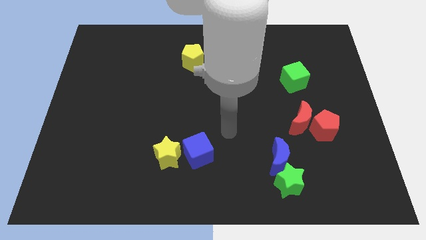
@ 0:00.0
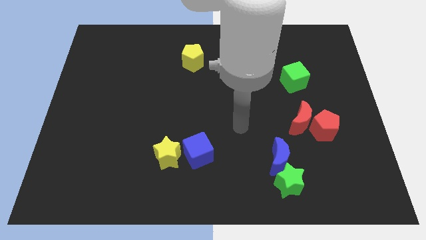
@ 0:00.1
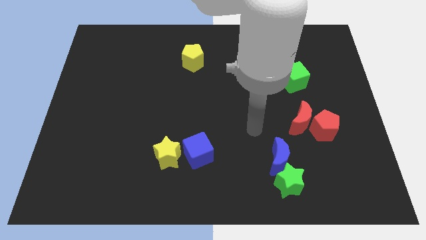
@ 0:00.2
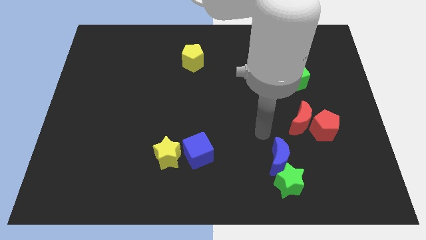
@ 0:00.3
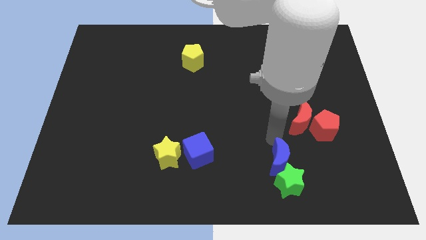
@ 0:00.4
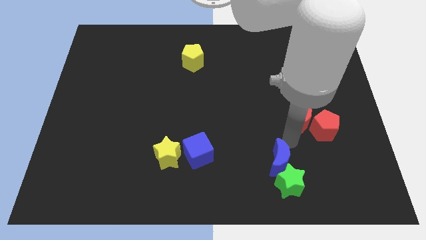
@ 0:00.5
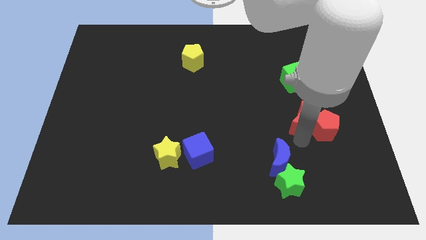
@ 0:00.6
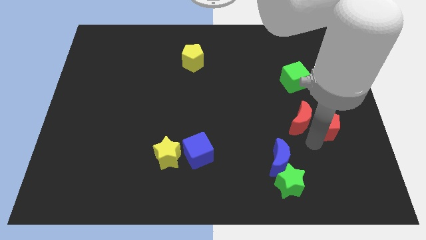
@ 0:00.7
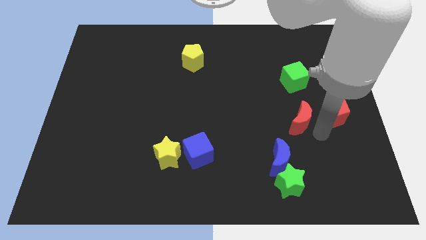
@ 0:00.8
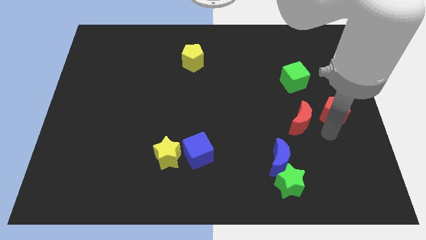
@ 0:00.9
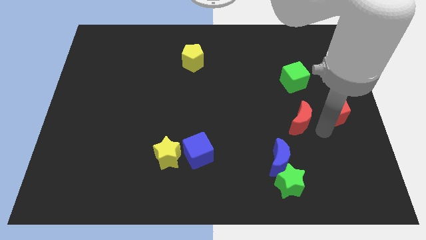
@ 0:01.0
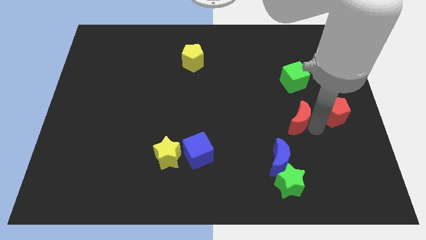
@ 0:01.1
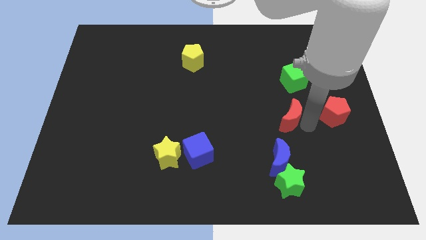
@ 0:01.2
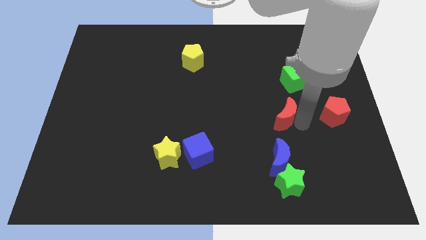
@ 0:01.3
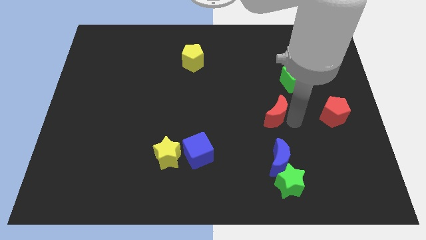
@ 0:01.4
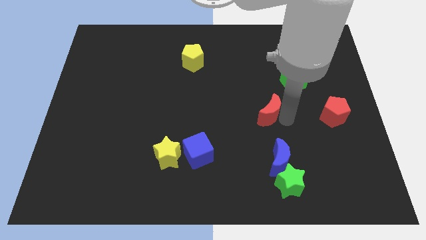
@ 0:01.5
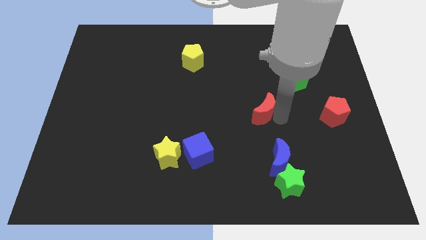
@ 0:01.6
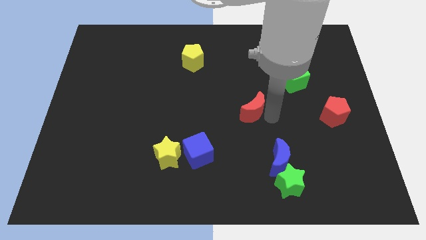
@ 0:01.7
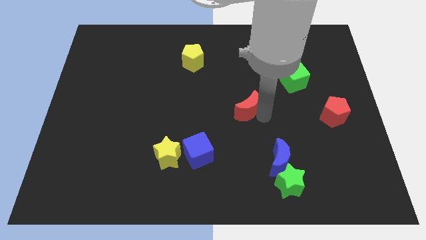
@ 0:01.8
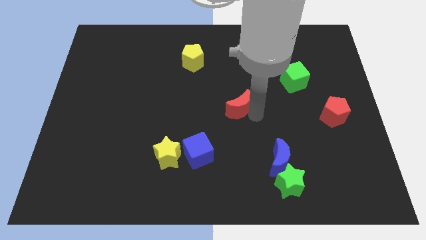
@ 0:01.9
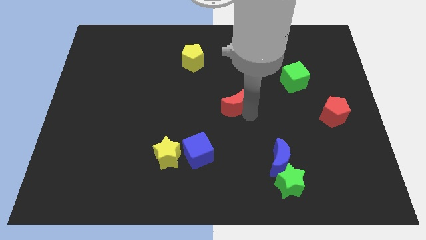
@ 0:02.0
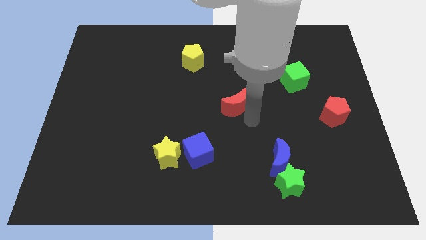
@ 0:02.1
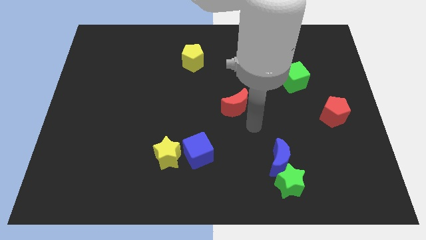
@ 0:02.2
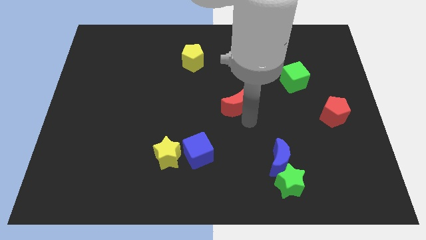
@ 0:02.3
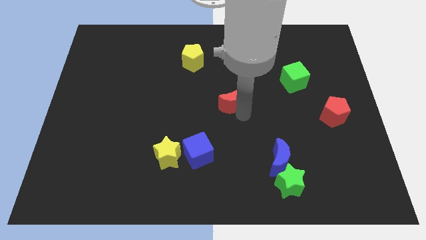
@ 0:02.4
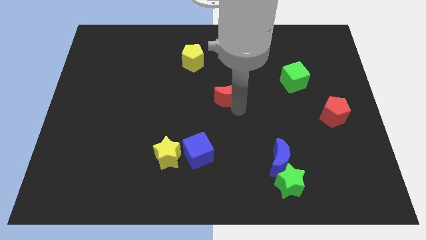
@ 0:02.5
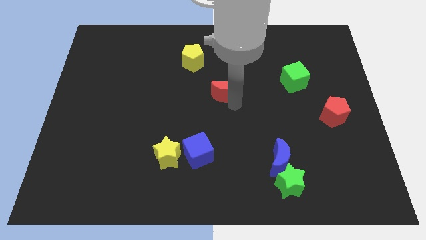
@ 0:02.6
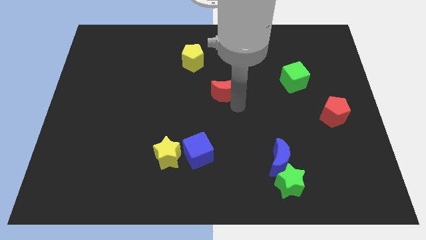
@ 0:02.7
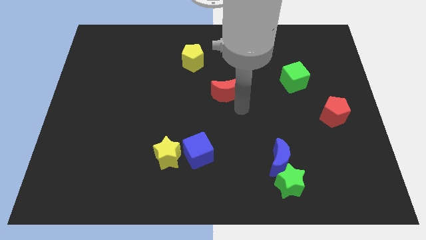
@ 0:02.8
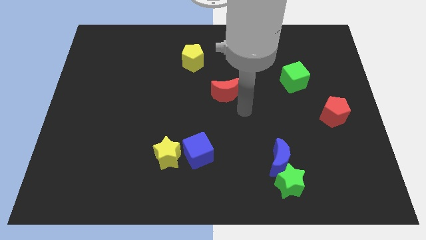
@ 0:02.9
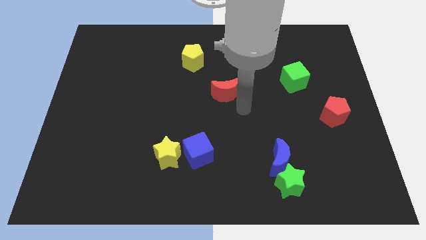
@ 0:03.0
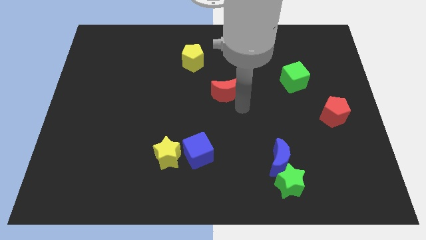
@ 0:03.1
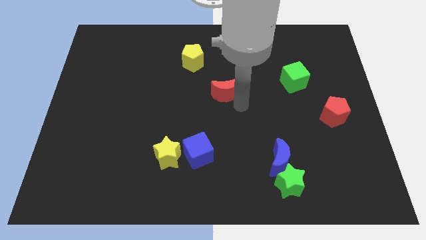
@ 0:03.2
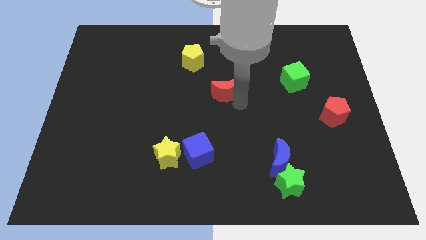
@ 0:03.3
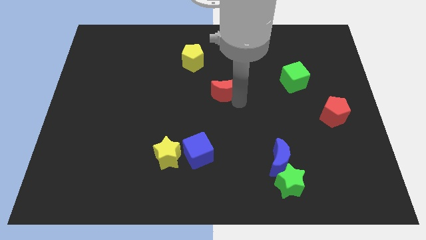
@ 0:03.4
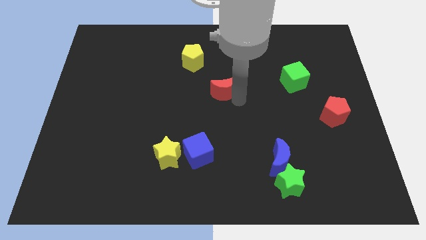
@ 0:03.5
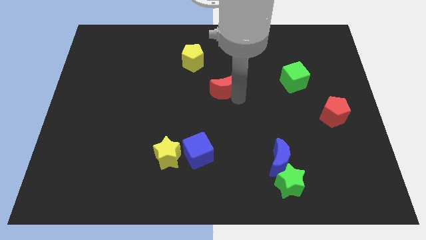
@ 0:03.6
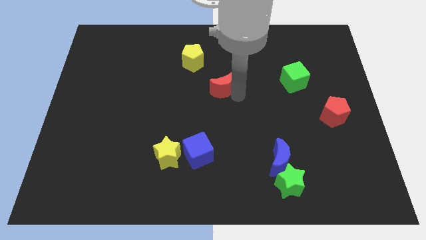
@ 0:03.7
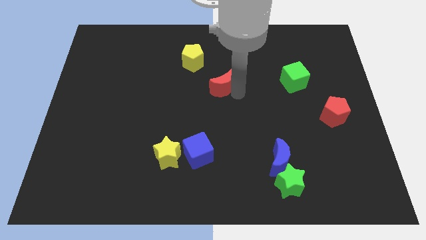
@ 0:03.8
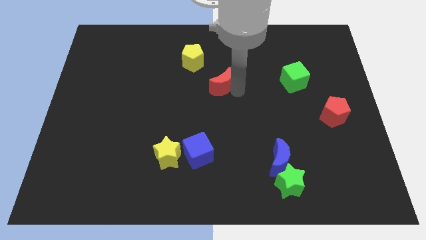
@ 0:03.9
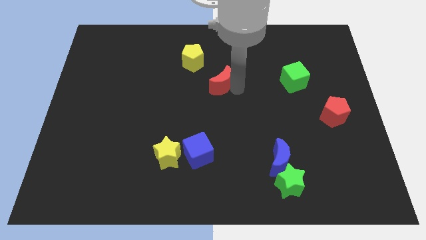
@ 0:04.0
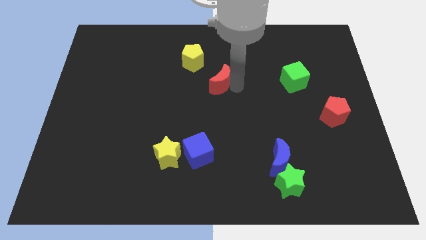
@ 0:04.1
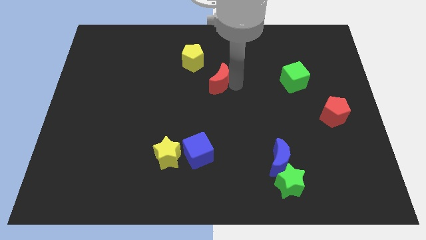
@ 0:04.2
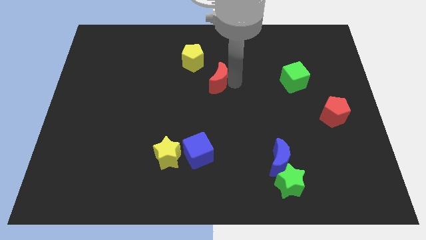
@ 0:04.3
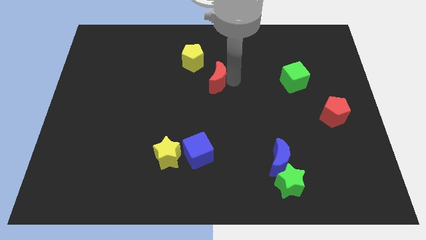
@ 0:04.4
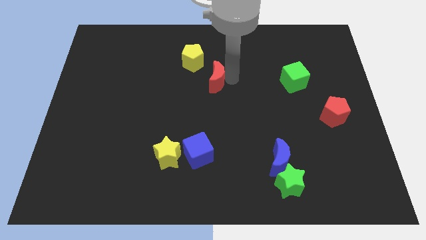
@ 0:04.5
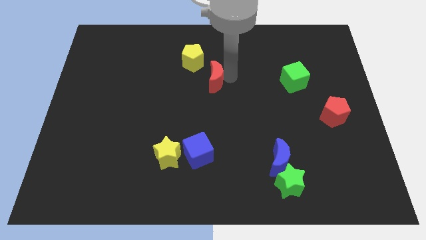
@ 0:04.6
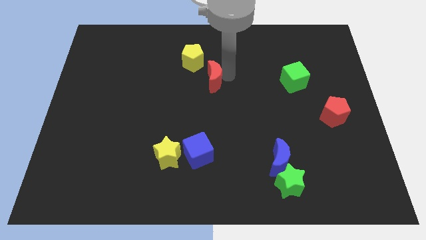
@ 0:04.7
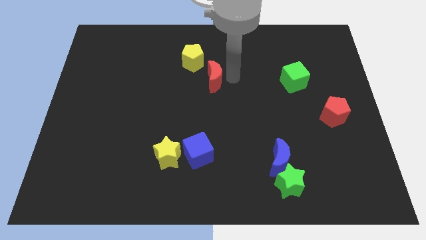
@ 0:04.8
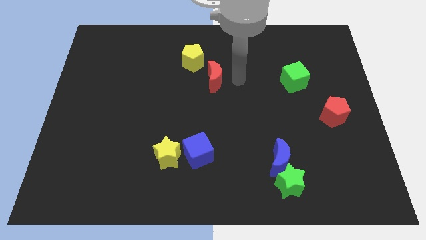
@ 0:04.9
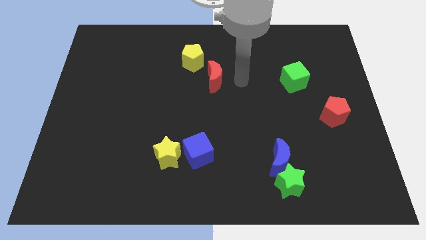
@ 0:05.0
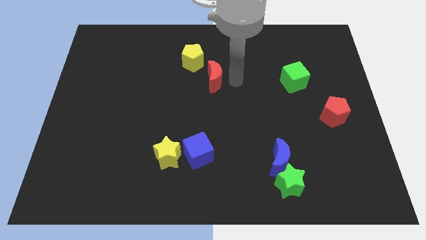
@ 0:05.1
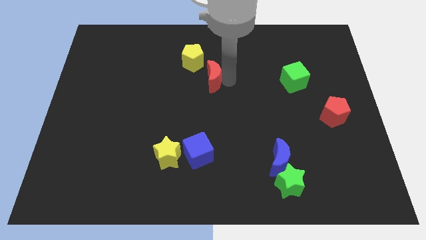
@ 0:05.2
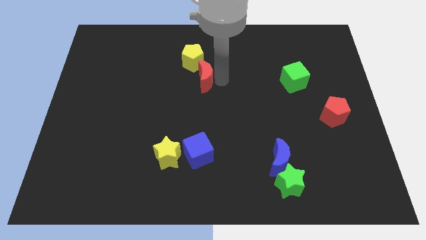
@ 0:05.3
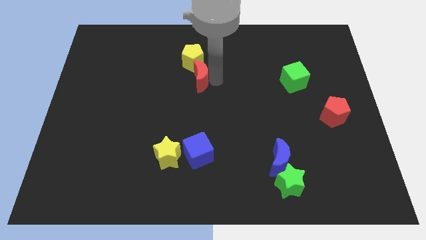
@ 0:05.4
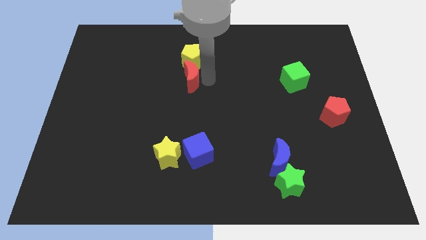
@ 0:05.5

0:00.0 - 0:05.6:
put the red moon to the bottom left of the yellow pentagon

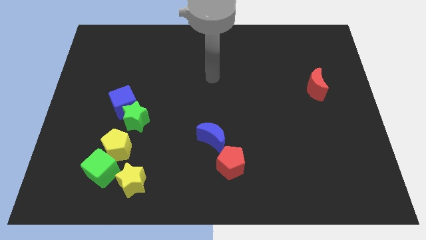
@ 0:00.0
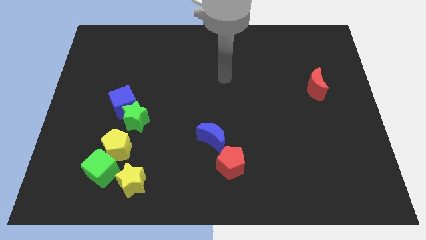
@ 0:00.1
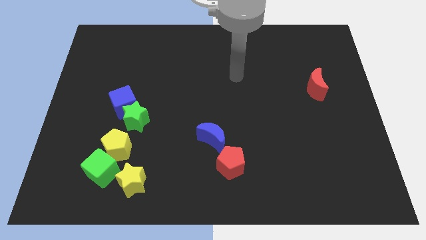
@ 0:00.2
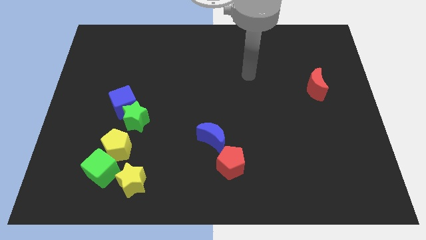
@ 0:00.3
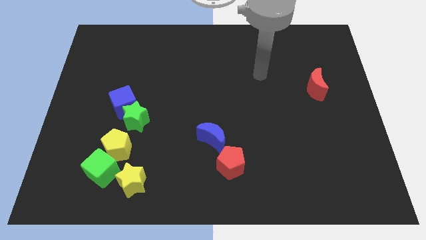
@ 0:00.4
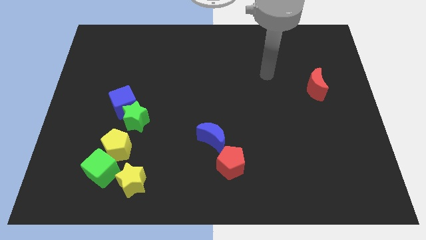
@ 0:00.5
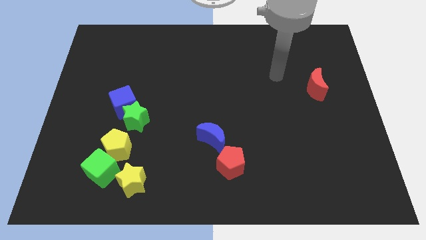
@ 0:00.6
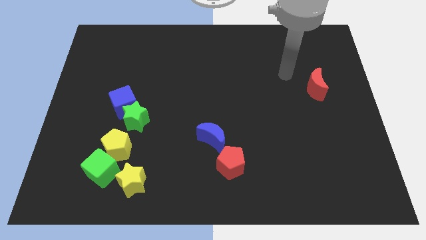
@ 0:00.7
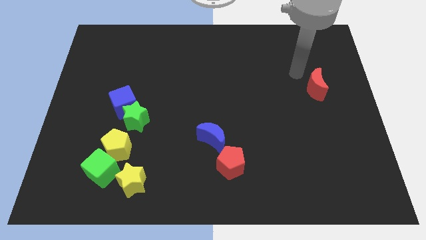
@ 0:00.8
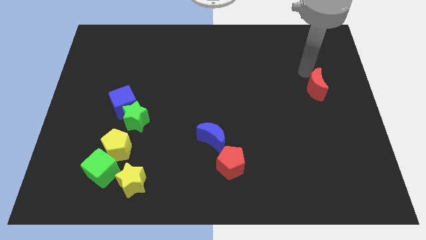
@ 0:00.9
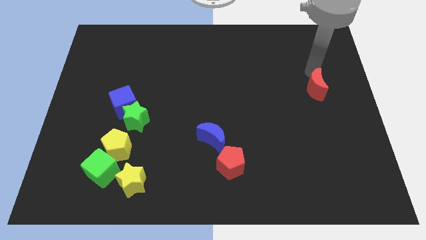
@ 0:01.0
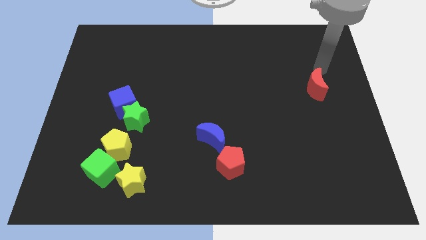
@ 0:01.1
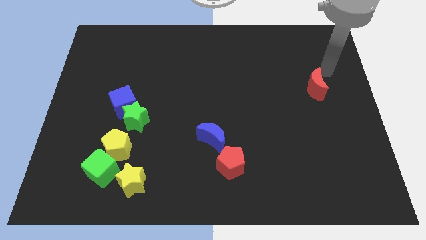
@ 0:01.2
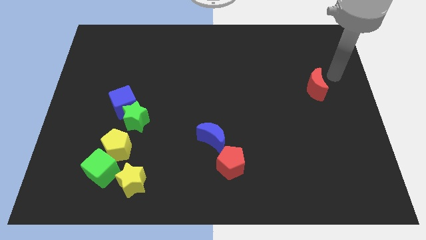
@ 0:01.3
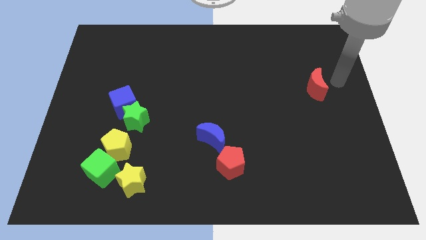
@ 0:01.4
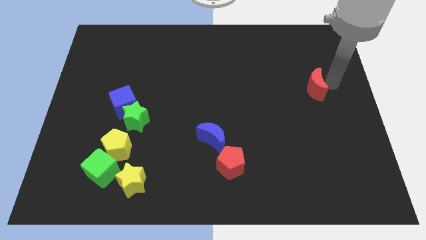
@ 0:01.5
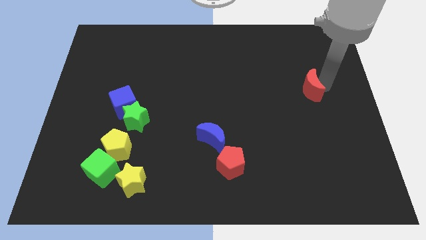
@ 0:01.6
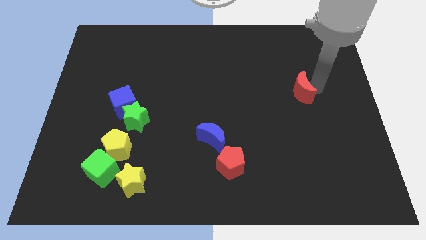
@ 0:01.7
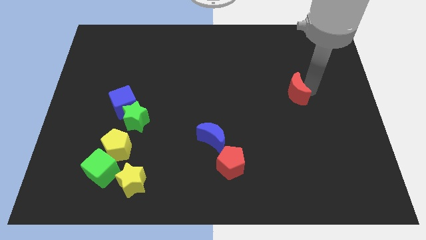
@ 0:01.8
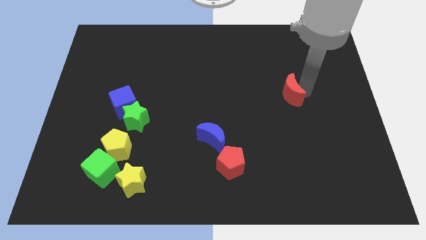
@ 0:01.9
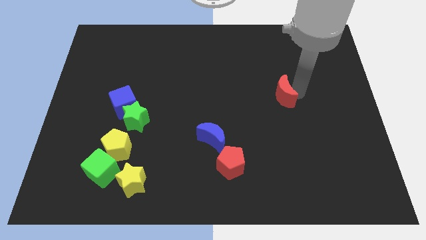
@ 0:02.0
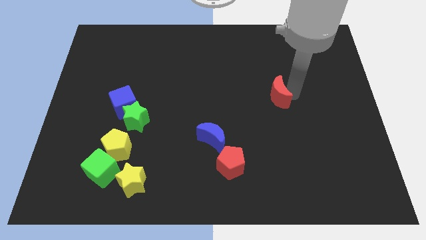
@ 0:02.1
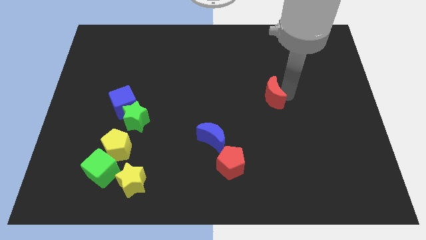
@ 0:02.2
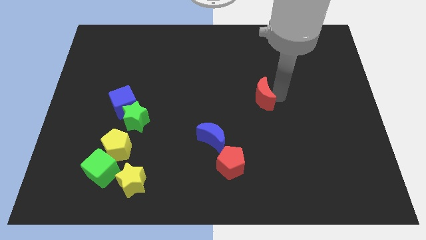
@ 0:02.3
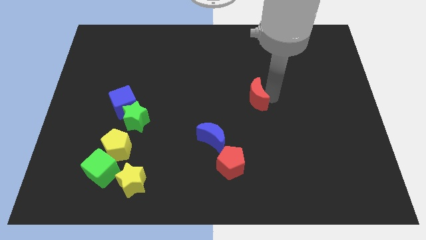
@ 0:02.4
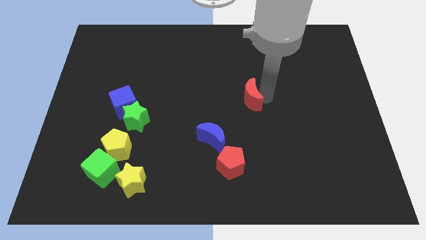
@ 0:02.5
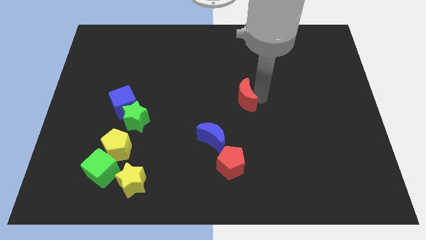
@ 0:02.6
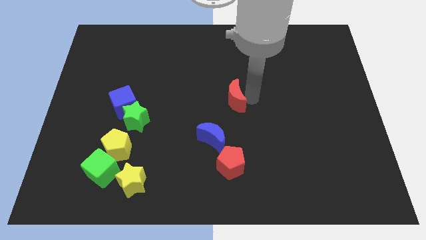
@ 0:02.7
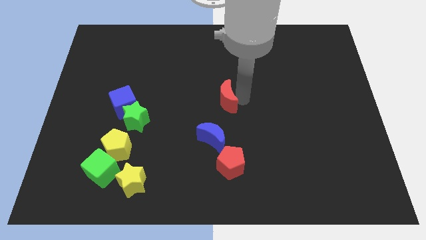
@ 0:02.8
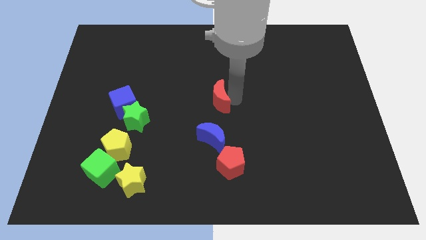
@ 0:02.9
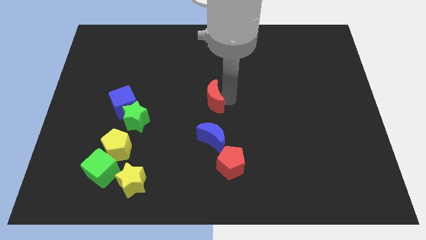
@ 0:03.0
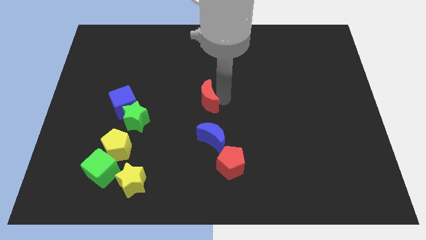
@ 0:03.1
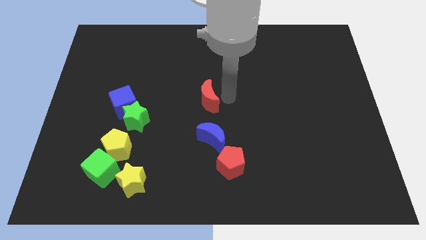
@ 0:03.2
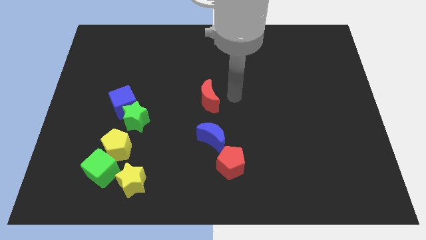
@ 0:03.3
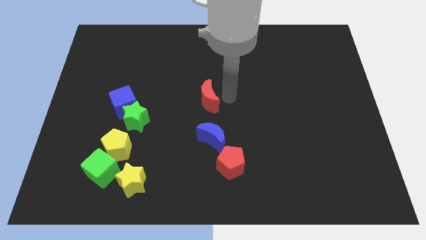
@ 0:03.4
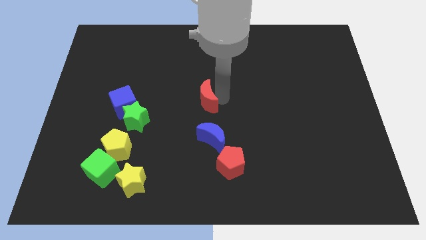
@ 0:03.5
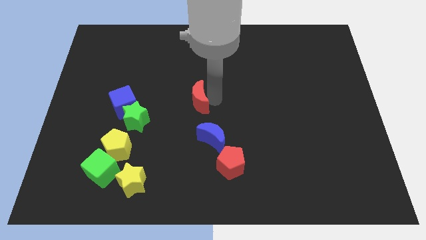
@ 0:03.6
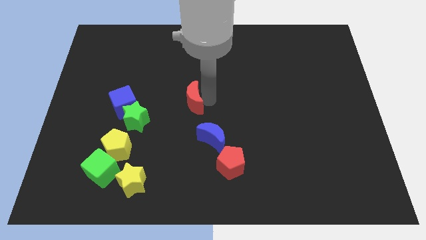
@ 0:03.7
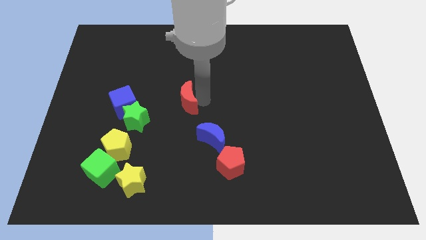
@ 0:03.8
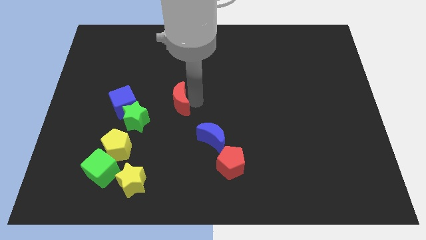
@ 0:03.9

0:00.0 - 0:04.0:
push the red moon diagonally up and to the right of the green star
